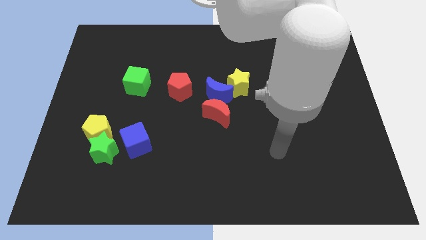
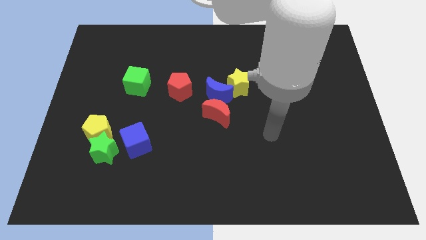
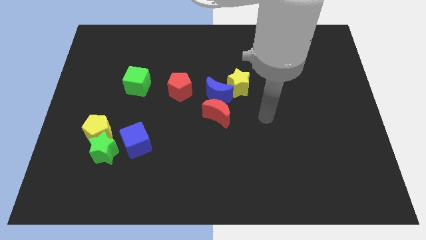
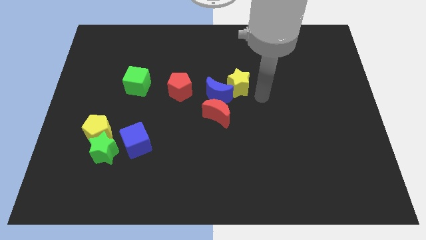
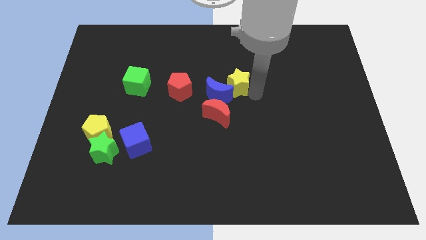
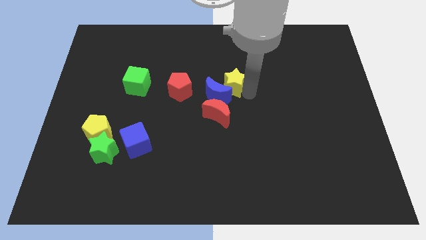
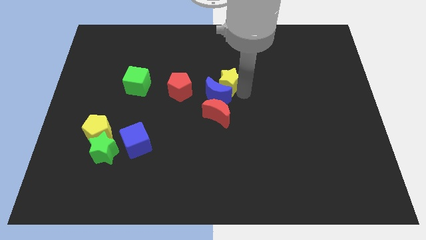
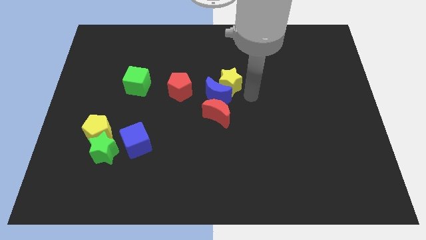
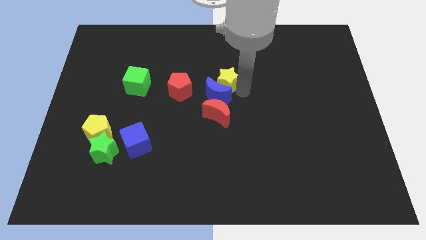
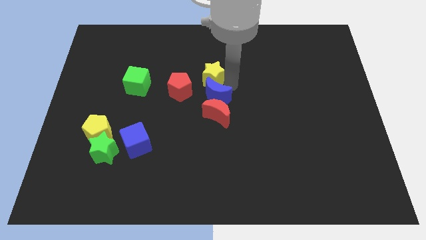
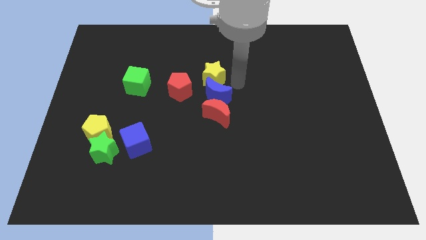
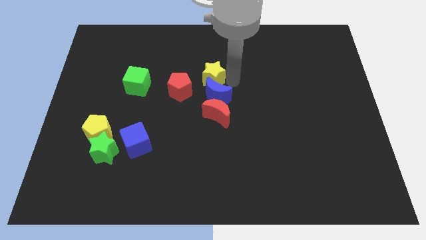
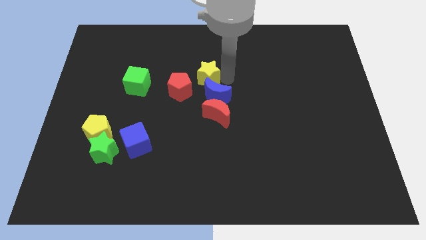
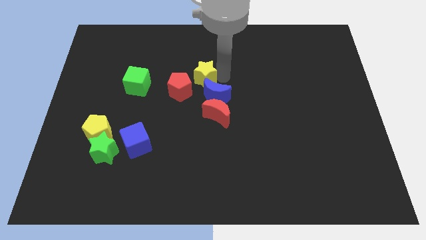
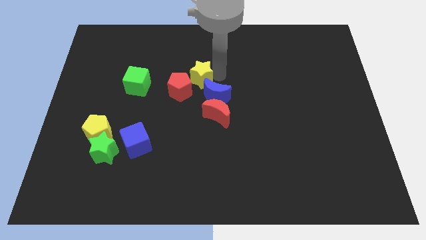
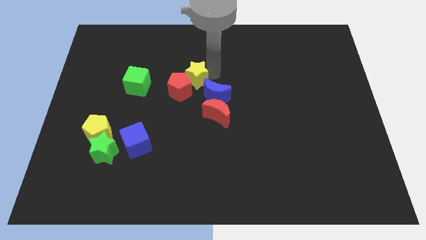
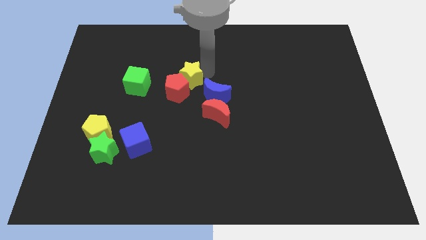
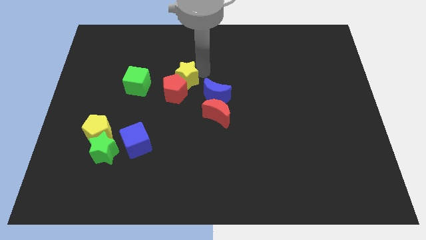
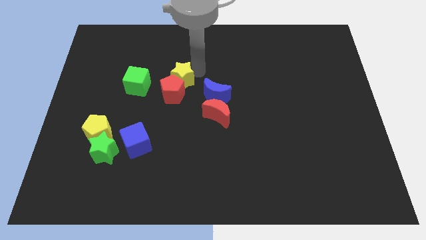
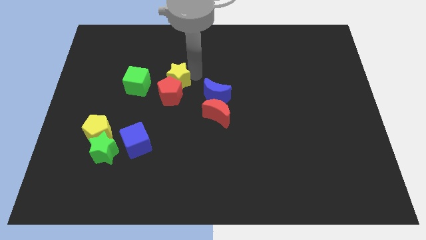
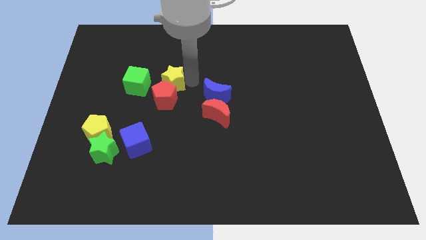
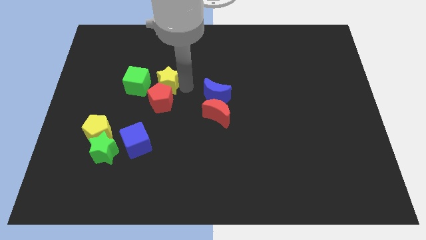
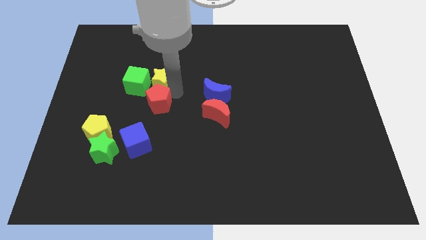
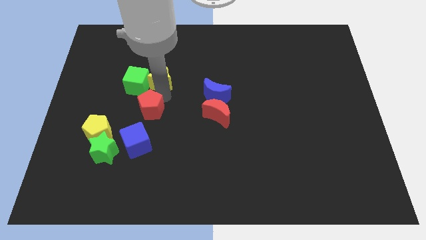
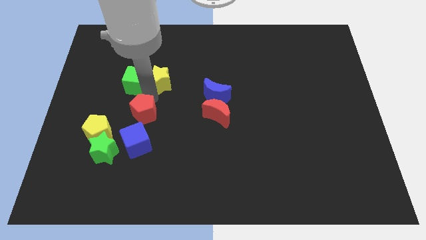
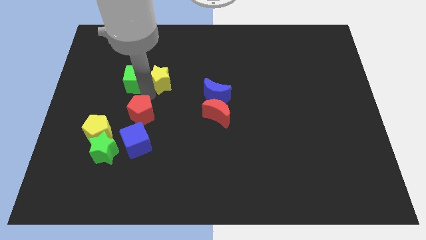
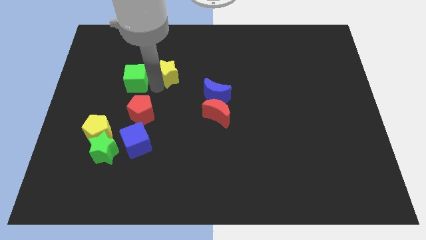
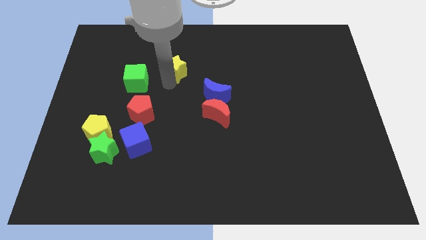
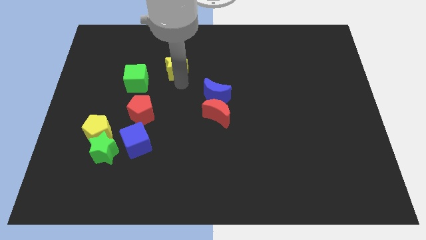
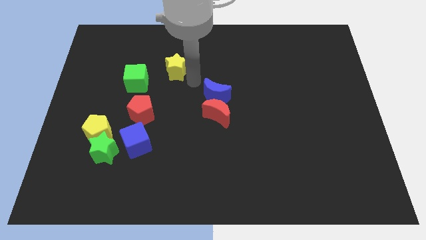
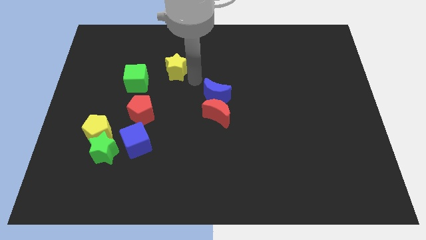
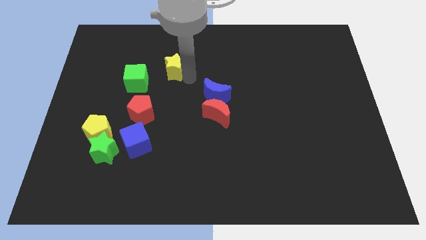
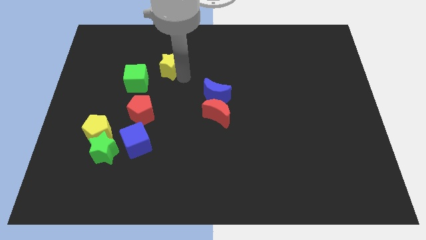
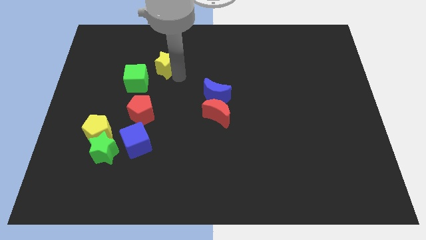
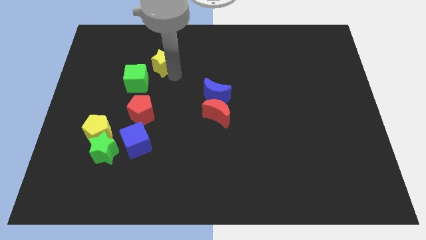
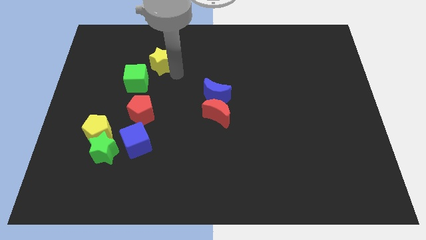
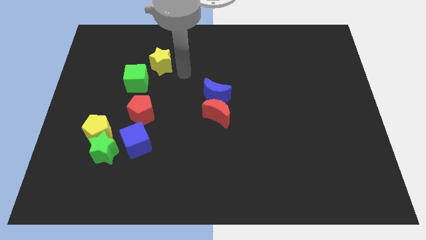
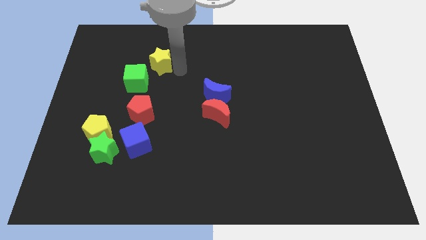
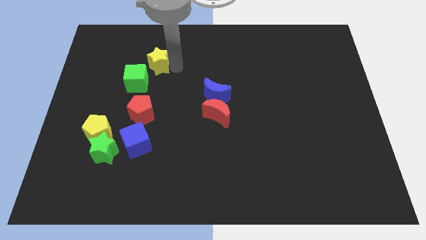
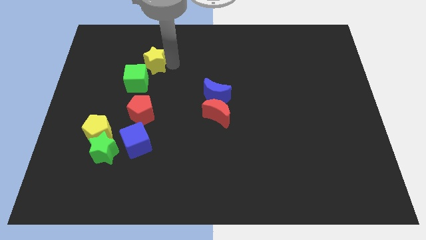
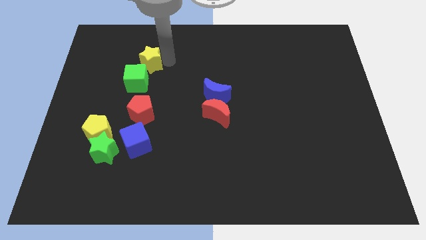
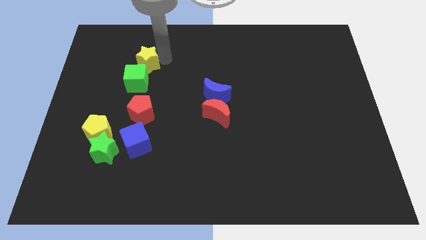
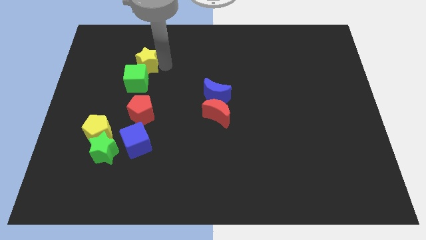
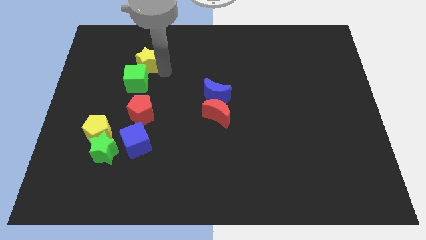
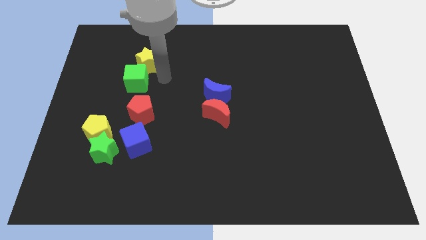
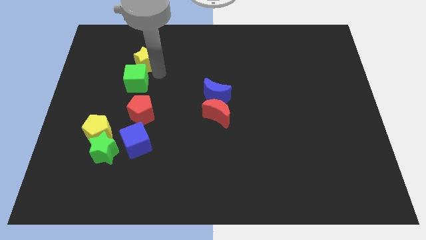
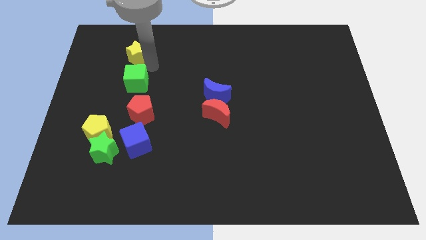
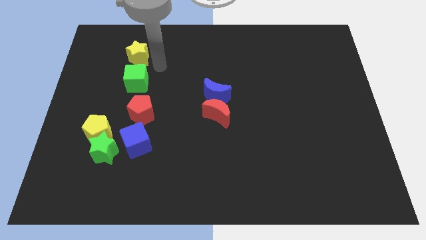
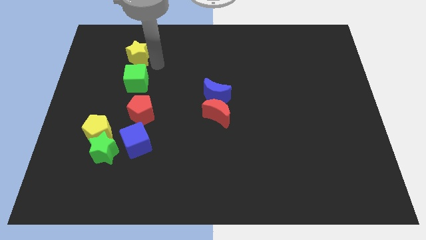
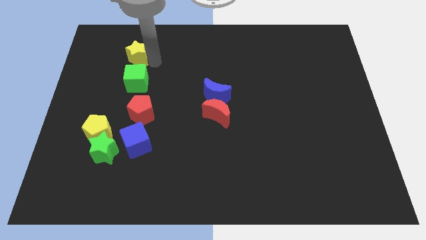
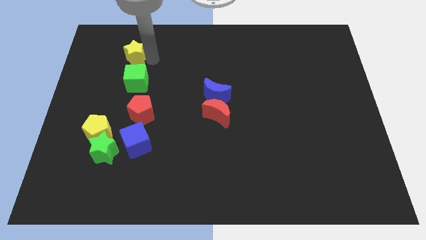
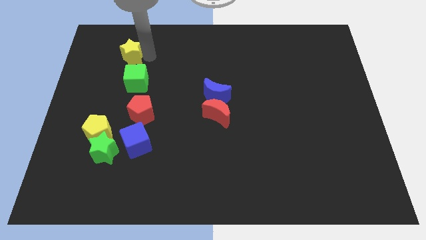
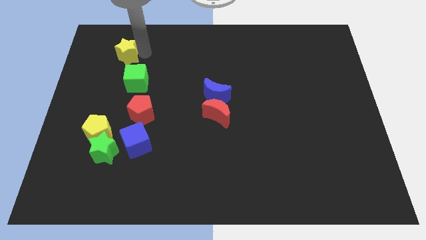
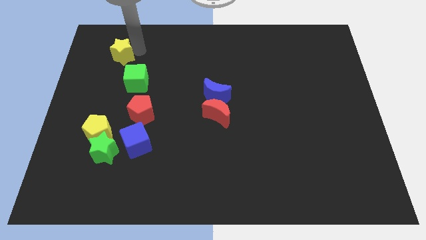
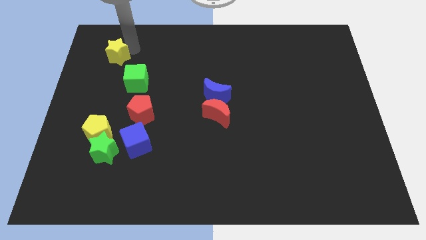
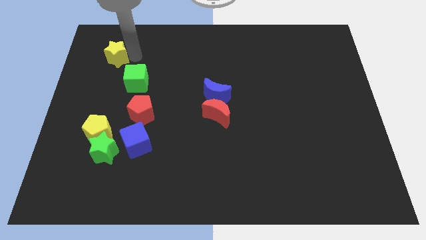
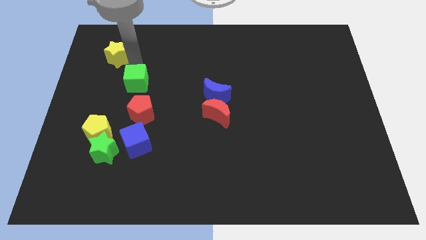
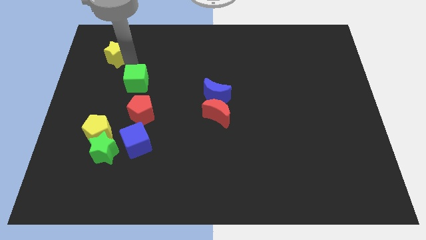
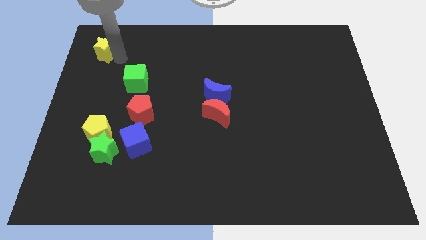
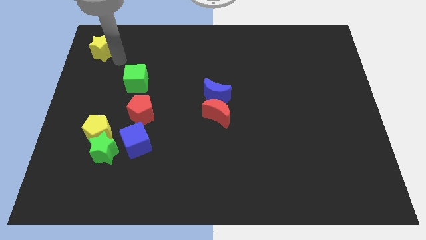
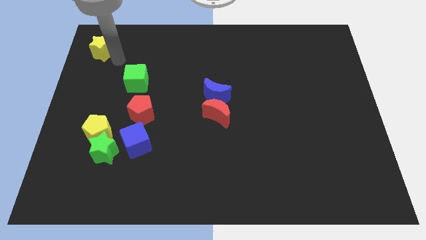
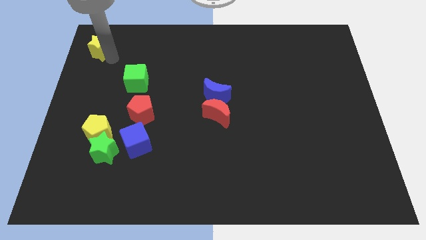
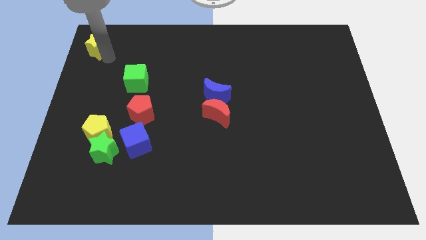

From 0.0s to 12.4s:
move the yellow star to the top left corner

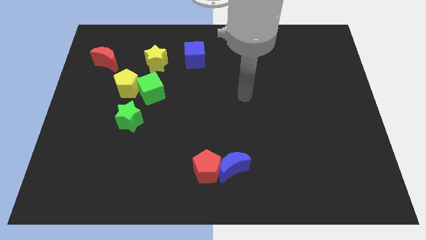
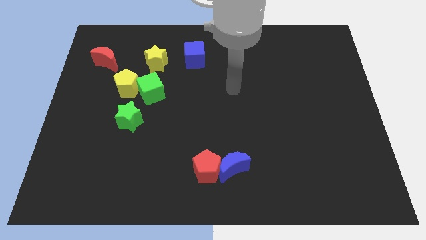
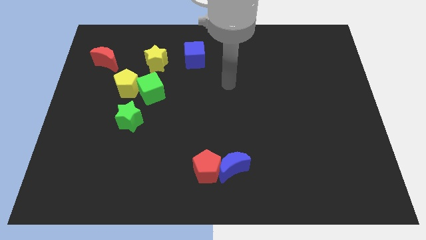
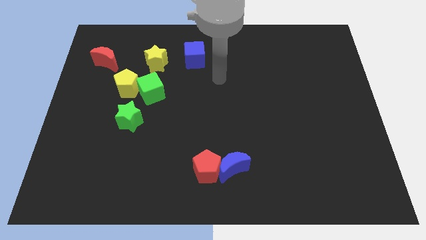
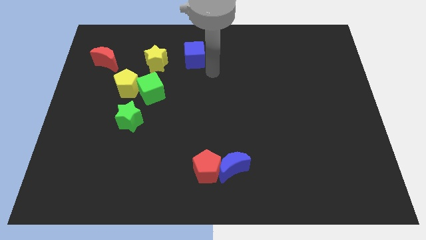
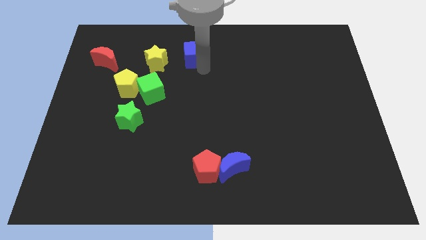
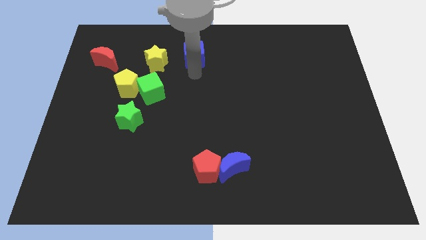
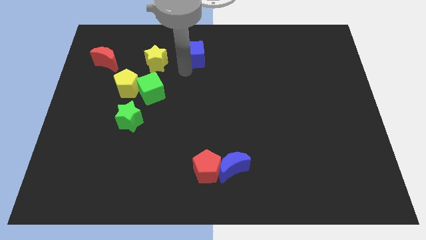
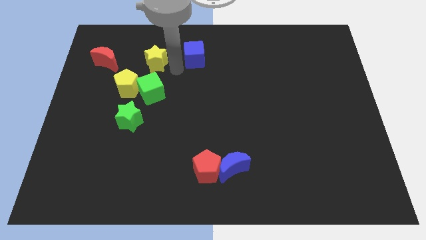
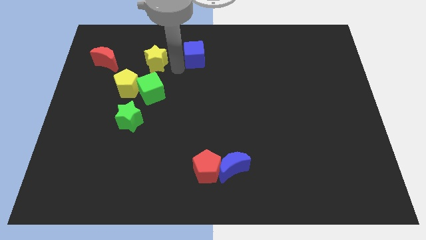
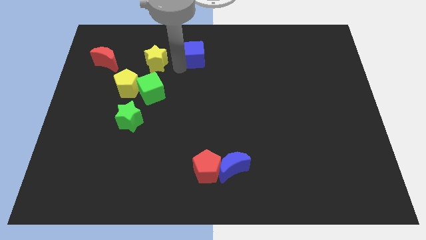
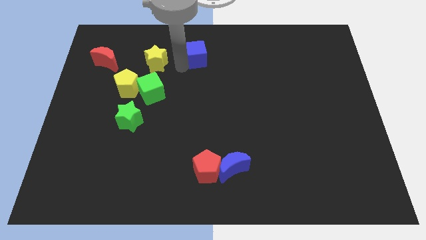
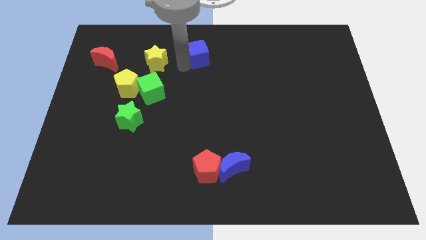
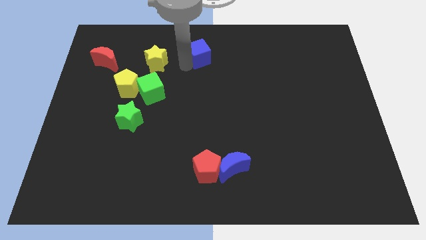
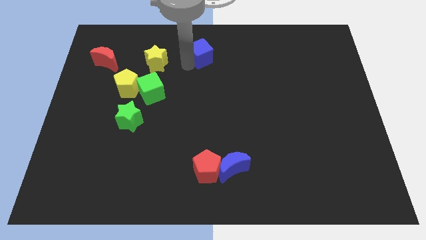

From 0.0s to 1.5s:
move the blue cube to the top
